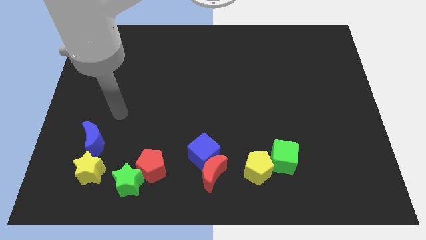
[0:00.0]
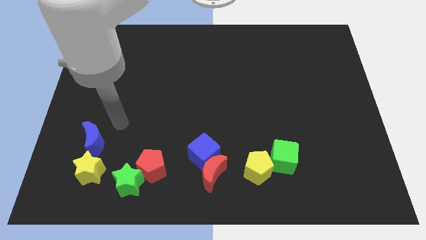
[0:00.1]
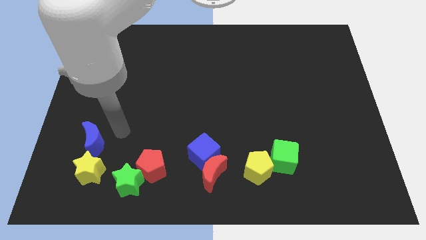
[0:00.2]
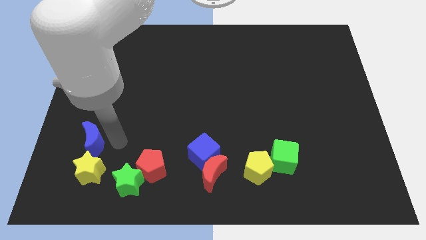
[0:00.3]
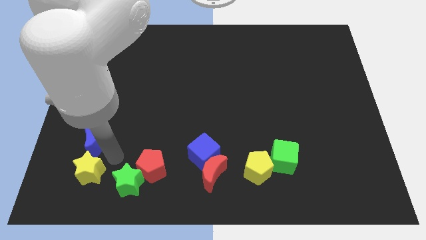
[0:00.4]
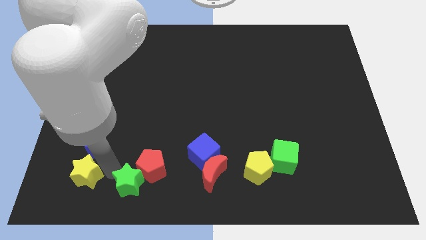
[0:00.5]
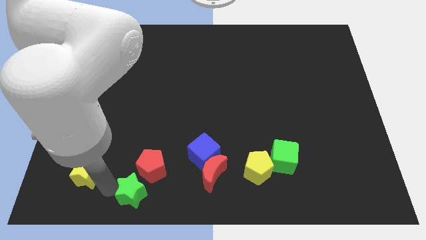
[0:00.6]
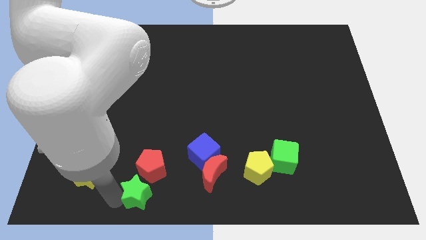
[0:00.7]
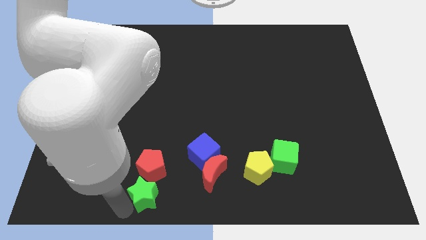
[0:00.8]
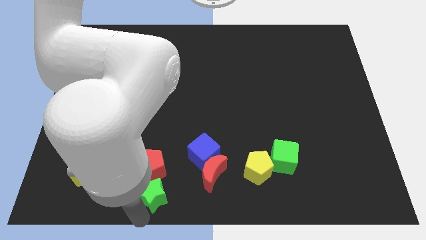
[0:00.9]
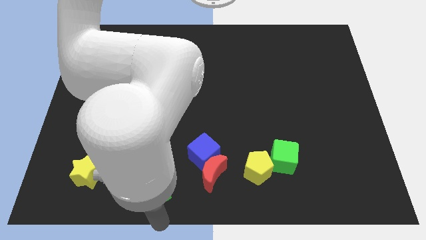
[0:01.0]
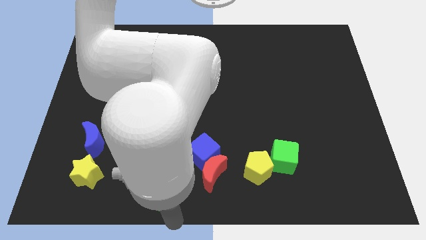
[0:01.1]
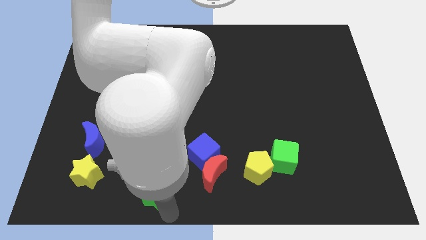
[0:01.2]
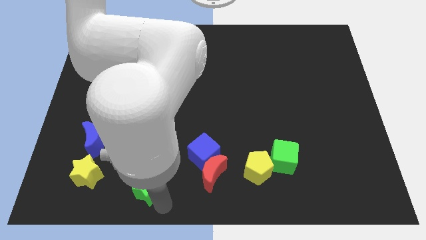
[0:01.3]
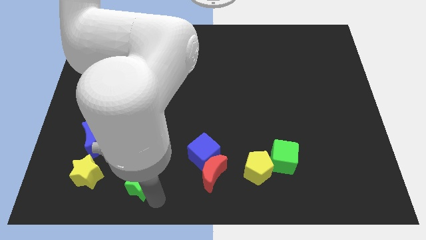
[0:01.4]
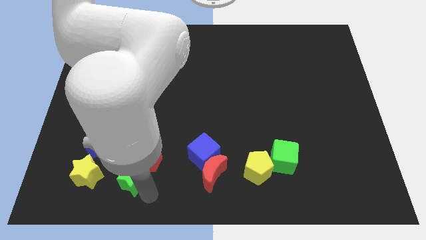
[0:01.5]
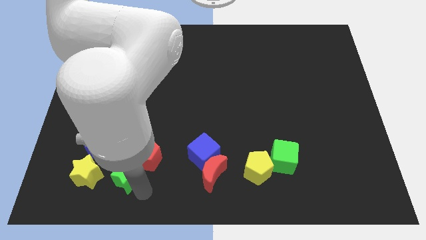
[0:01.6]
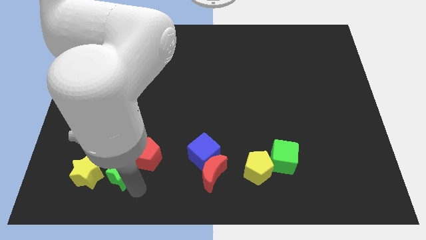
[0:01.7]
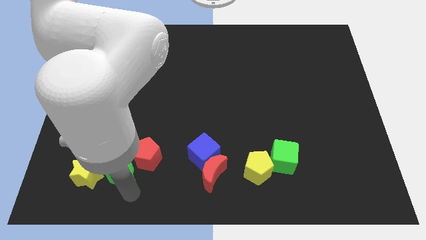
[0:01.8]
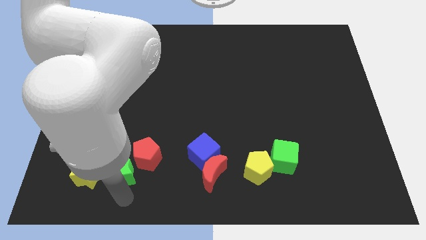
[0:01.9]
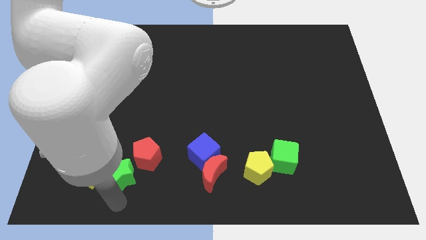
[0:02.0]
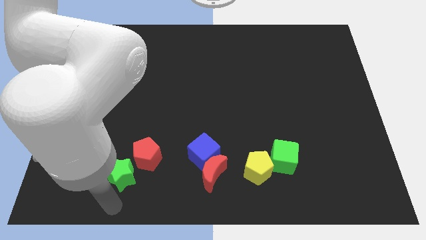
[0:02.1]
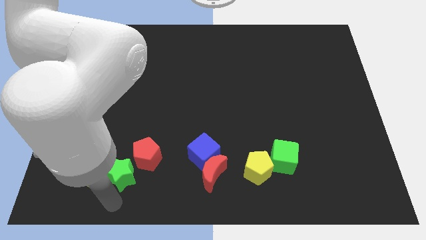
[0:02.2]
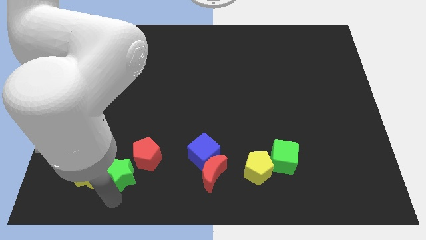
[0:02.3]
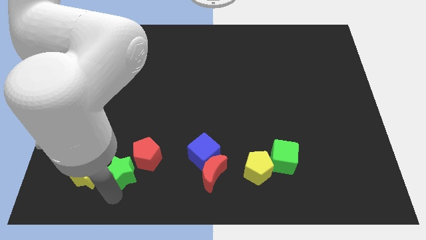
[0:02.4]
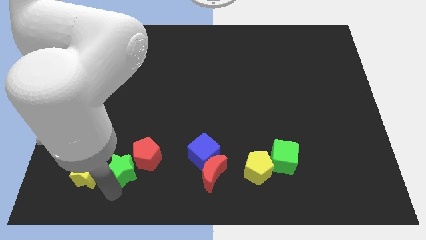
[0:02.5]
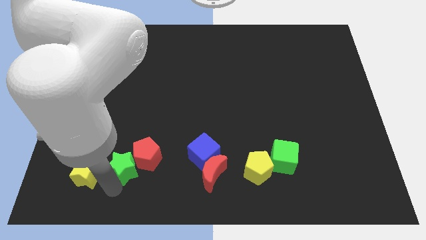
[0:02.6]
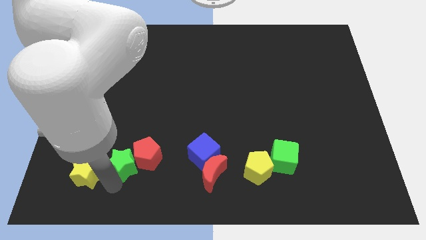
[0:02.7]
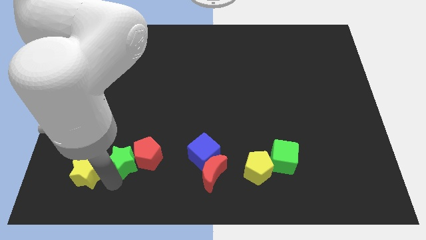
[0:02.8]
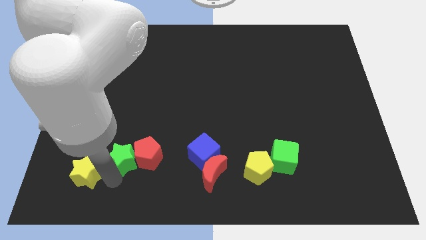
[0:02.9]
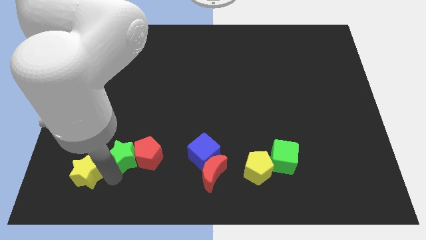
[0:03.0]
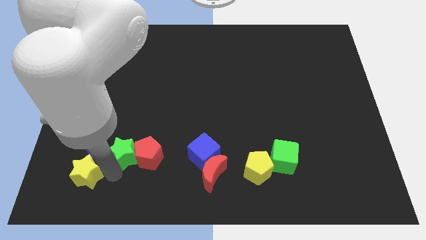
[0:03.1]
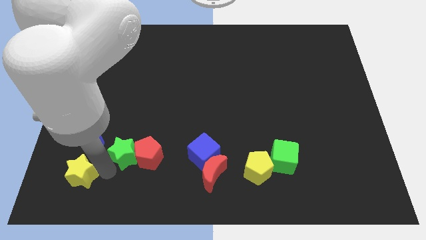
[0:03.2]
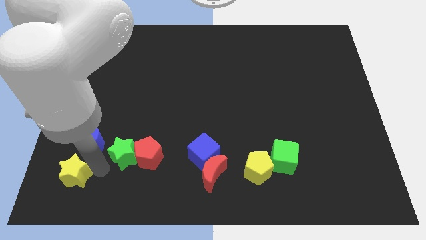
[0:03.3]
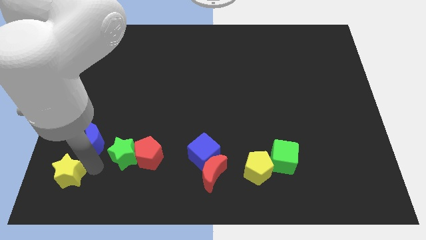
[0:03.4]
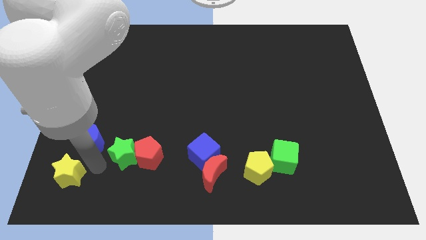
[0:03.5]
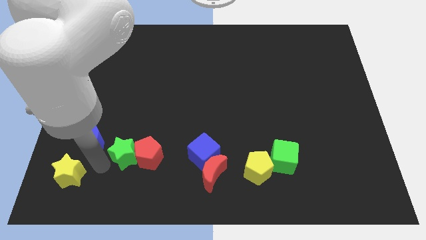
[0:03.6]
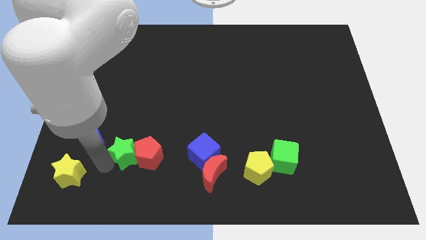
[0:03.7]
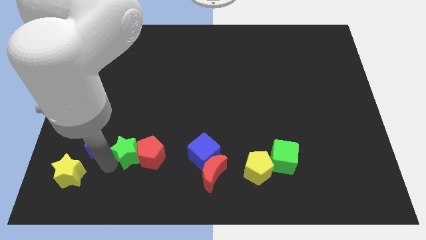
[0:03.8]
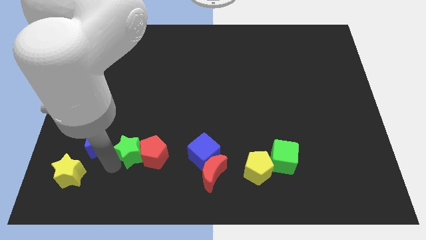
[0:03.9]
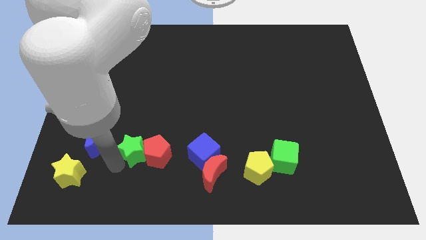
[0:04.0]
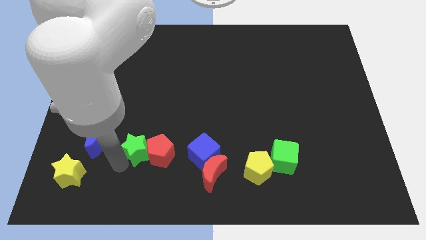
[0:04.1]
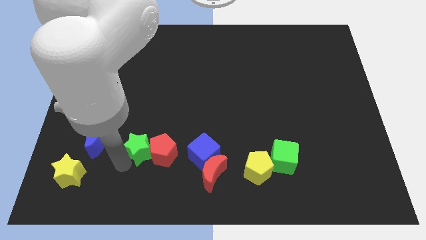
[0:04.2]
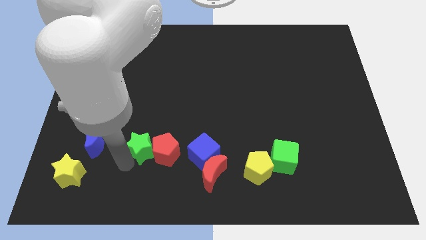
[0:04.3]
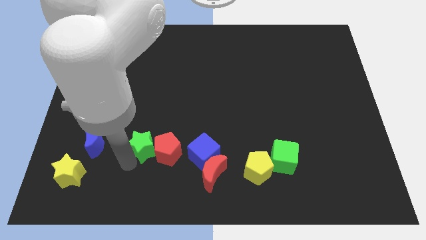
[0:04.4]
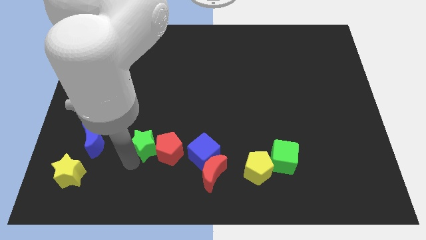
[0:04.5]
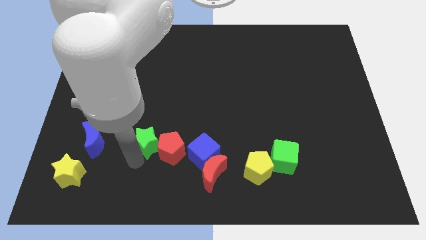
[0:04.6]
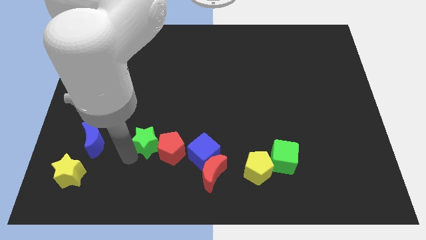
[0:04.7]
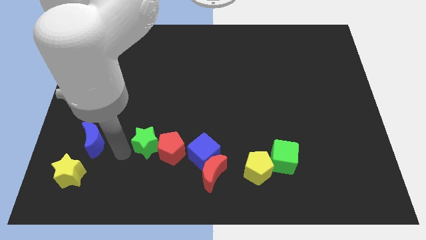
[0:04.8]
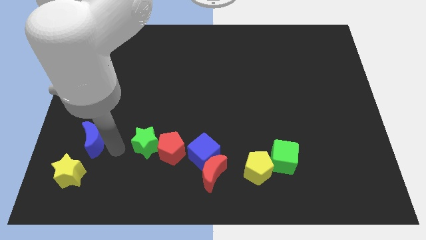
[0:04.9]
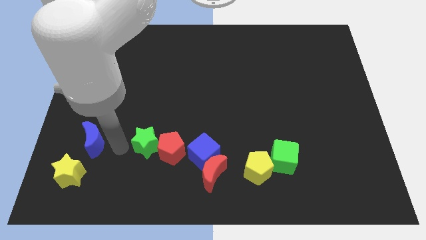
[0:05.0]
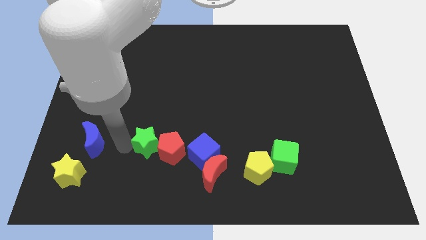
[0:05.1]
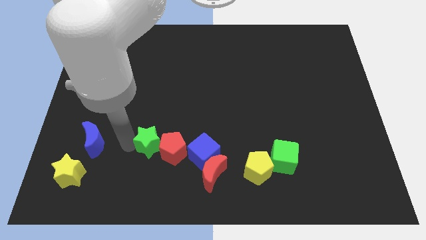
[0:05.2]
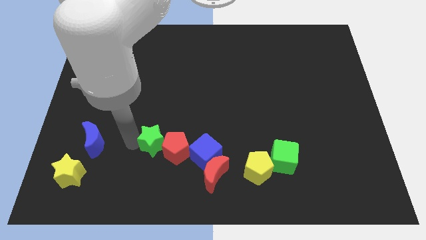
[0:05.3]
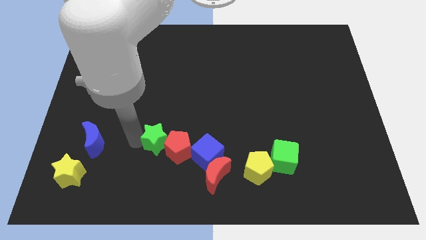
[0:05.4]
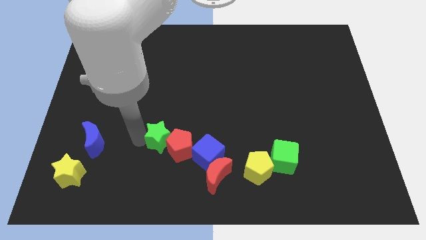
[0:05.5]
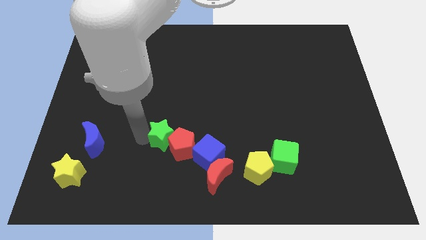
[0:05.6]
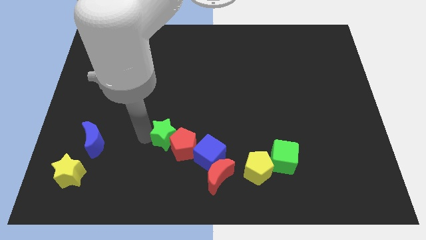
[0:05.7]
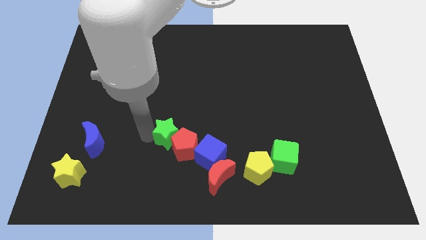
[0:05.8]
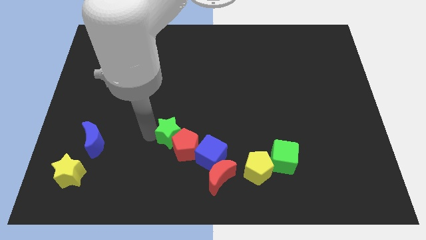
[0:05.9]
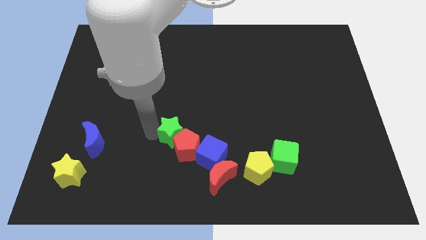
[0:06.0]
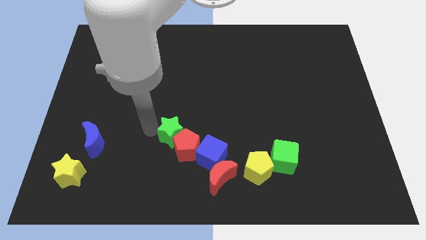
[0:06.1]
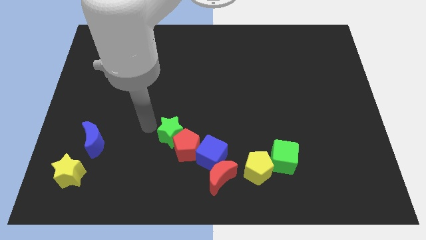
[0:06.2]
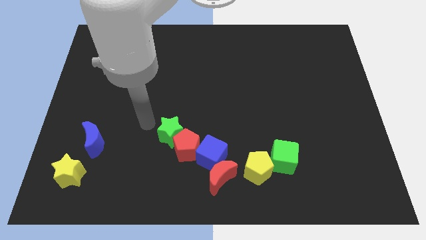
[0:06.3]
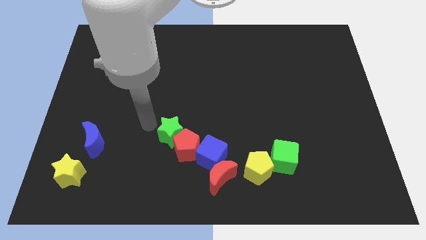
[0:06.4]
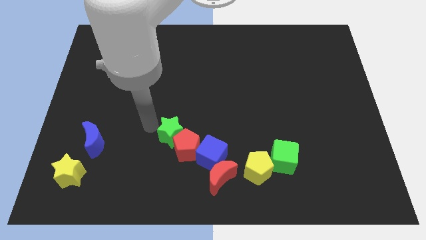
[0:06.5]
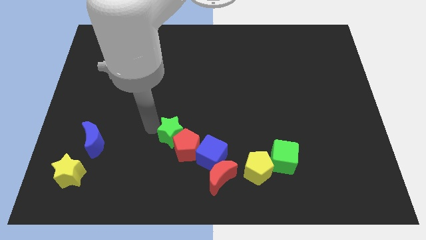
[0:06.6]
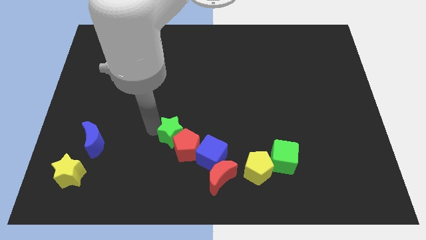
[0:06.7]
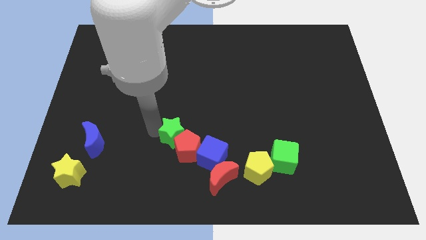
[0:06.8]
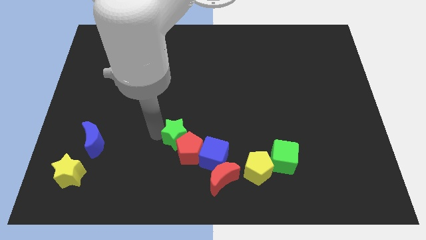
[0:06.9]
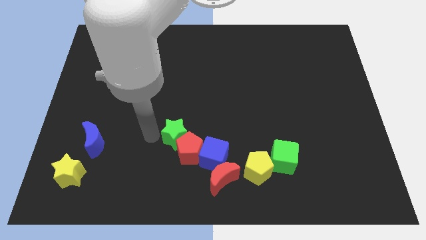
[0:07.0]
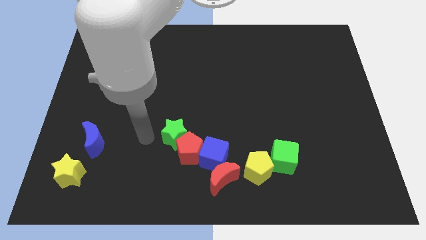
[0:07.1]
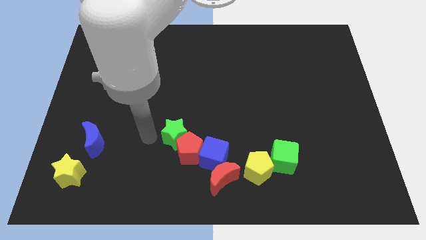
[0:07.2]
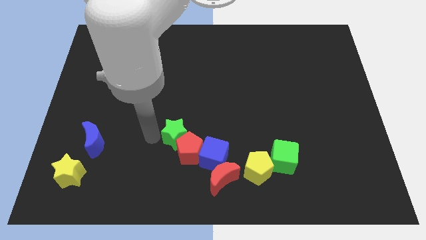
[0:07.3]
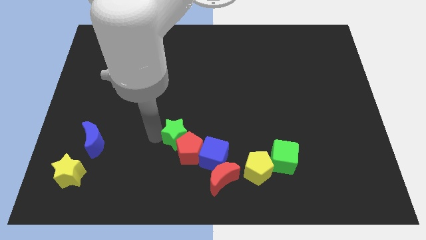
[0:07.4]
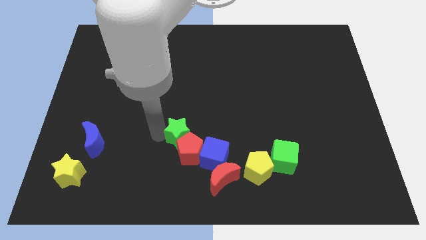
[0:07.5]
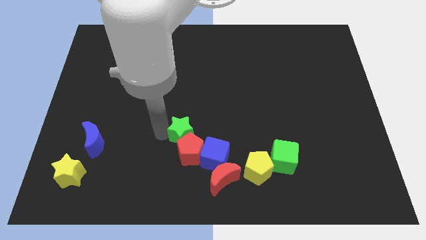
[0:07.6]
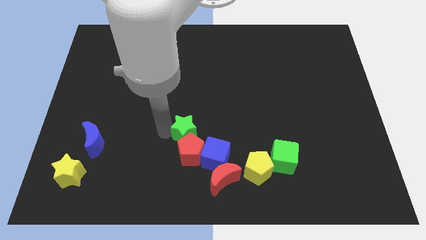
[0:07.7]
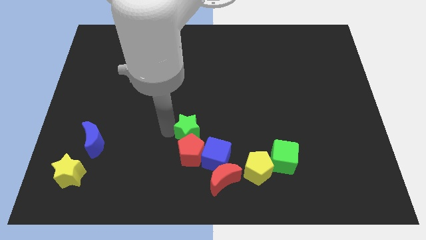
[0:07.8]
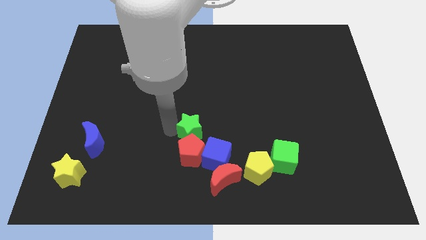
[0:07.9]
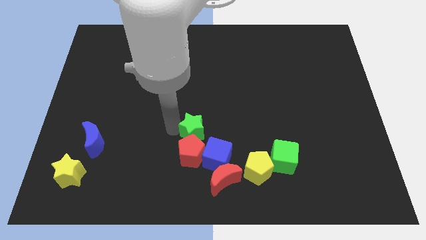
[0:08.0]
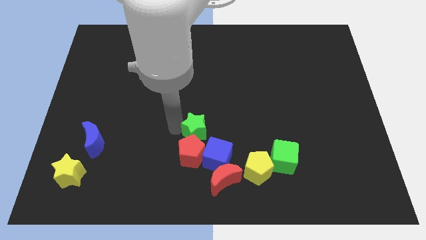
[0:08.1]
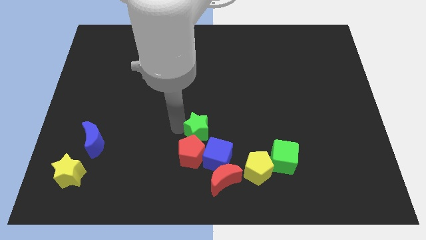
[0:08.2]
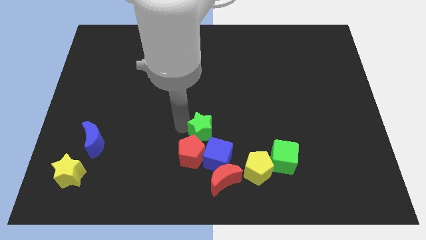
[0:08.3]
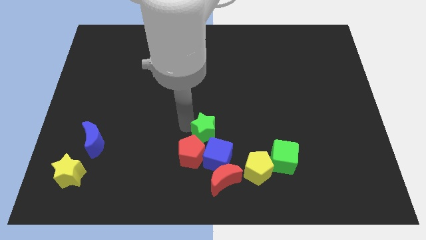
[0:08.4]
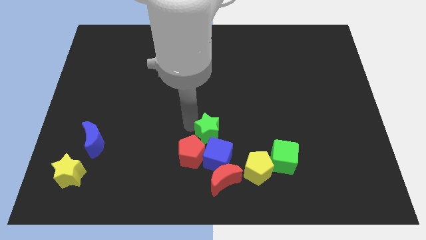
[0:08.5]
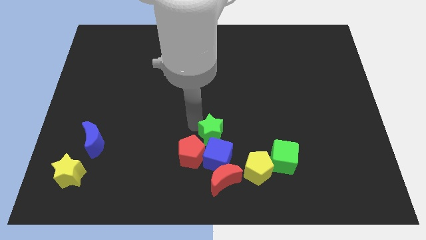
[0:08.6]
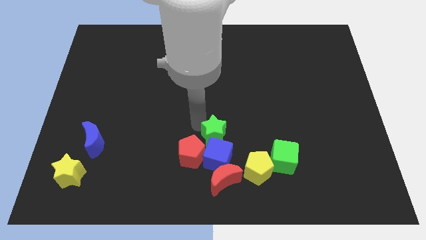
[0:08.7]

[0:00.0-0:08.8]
slide the green star to the top right of the blue cube
